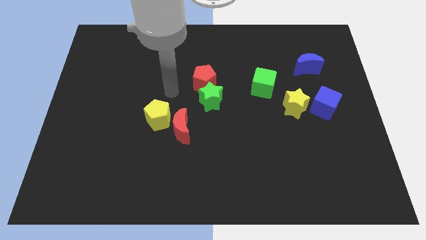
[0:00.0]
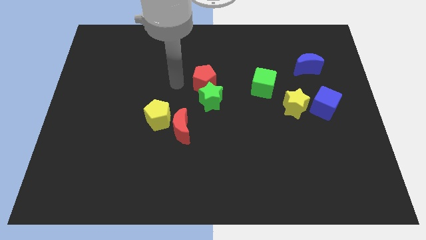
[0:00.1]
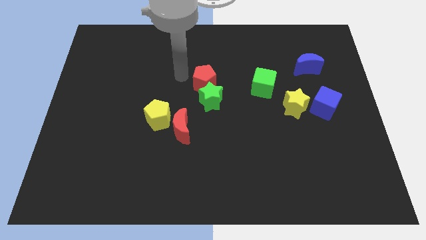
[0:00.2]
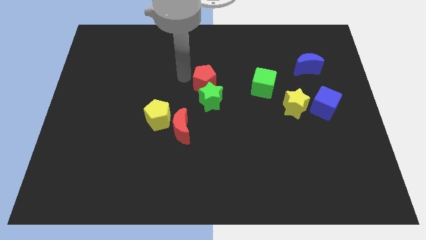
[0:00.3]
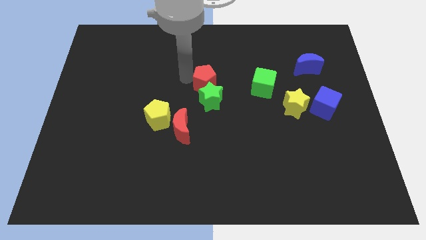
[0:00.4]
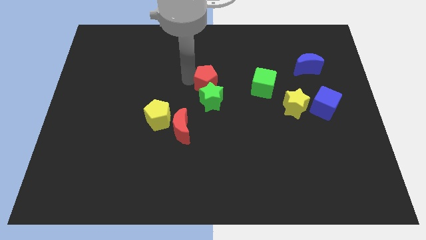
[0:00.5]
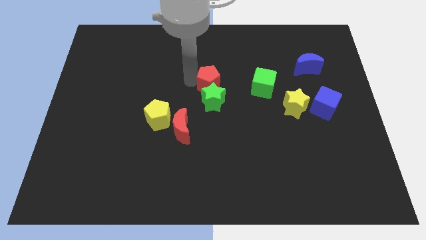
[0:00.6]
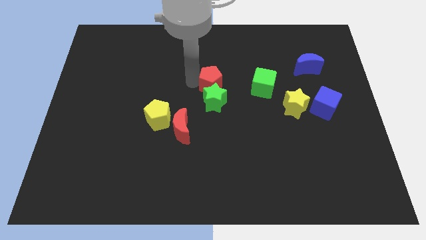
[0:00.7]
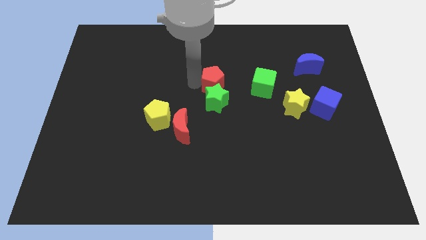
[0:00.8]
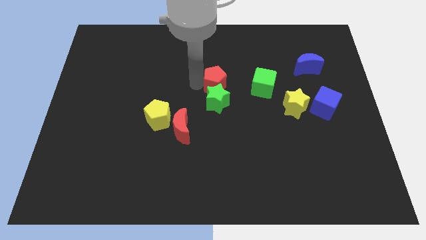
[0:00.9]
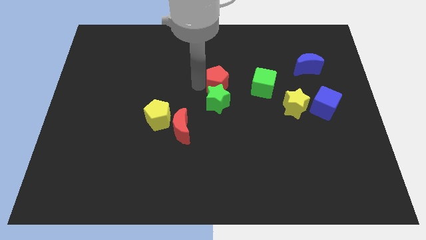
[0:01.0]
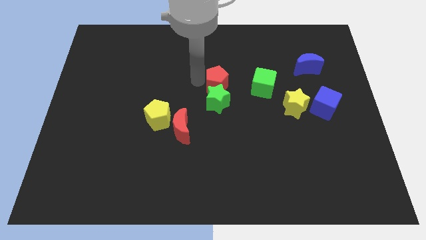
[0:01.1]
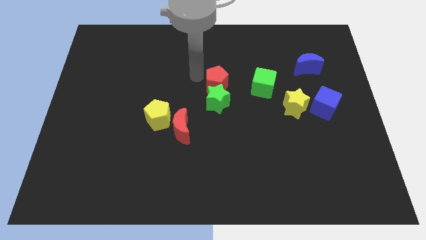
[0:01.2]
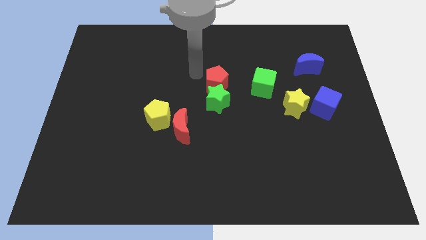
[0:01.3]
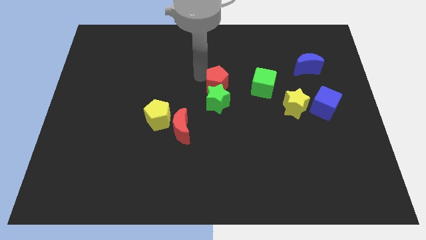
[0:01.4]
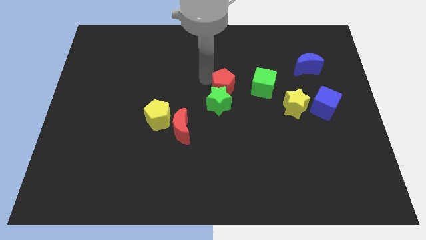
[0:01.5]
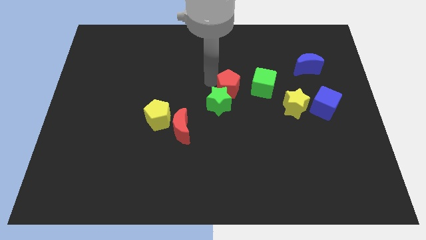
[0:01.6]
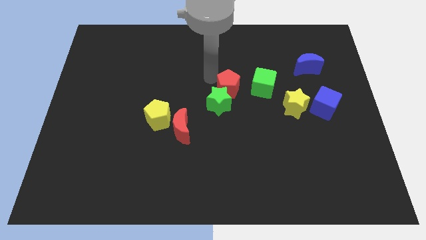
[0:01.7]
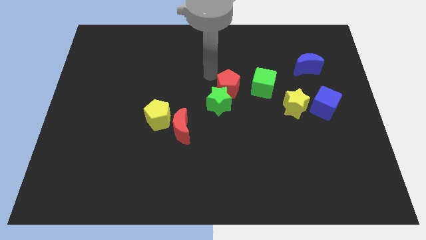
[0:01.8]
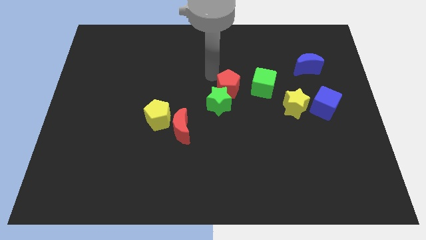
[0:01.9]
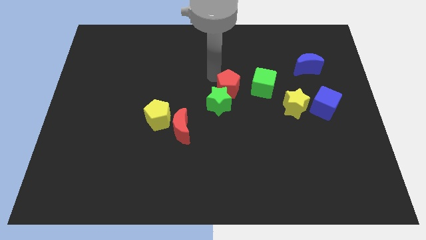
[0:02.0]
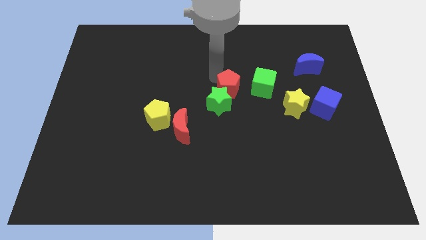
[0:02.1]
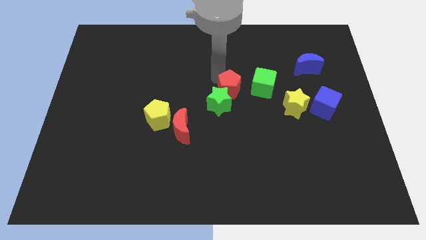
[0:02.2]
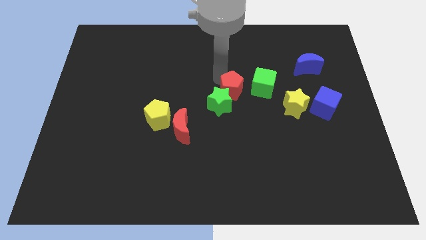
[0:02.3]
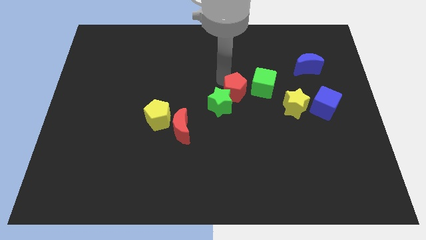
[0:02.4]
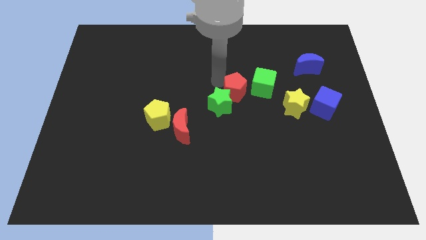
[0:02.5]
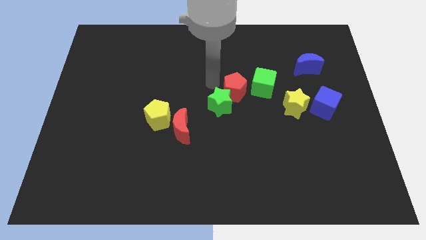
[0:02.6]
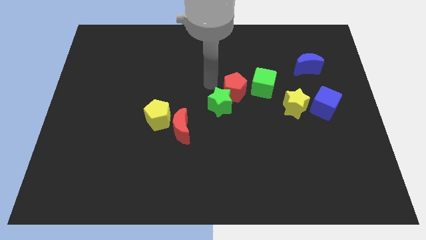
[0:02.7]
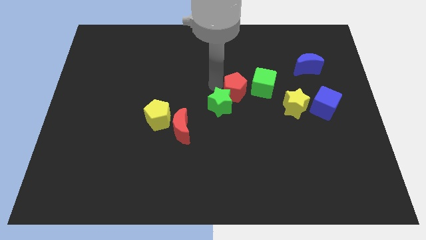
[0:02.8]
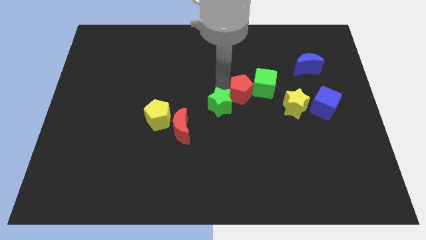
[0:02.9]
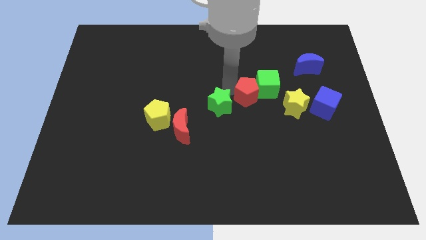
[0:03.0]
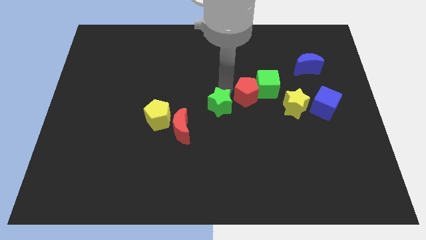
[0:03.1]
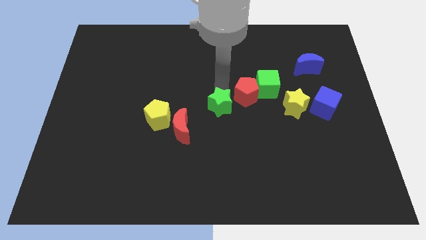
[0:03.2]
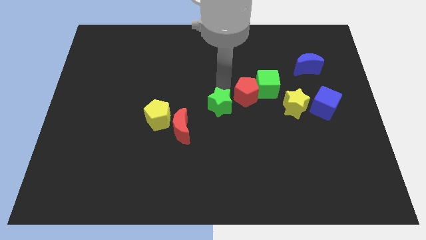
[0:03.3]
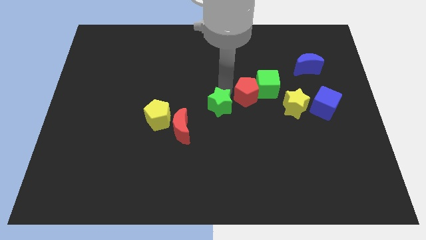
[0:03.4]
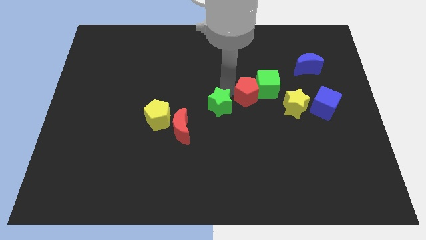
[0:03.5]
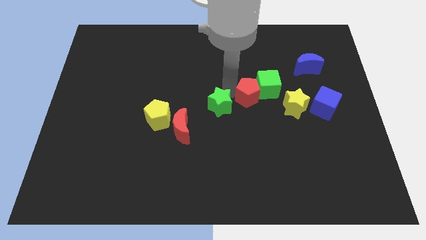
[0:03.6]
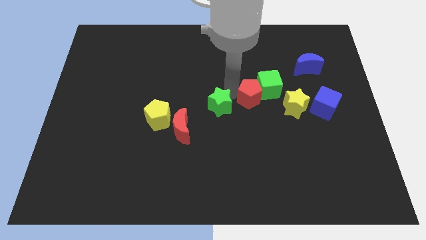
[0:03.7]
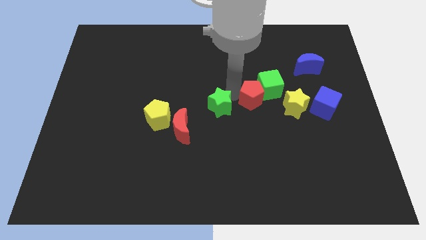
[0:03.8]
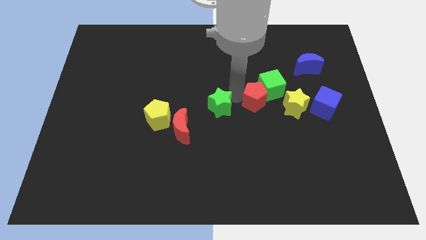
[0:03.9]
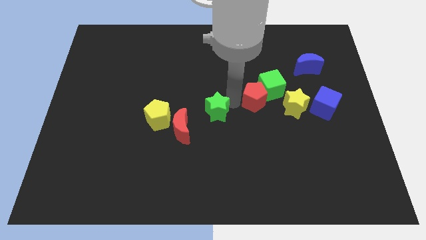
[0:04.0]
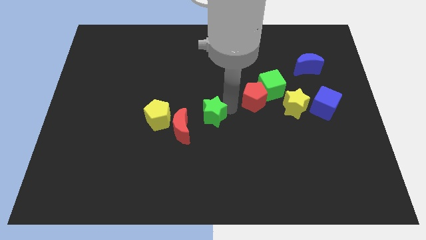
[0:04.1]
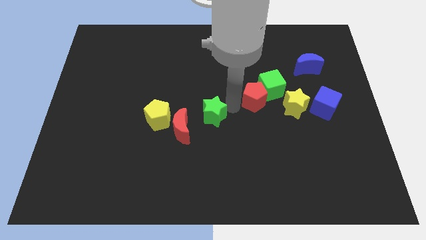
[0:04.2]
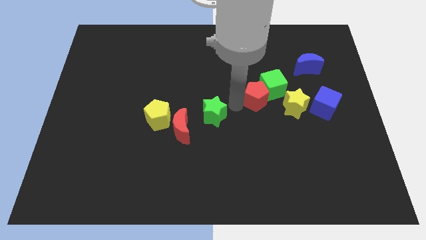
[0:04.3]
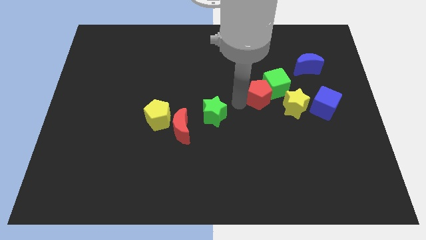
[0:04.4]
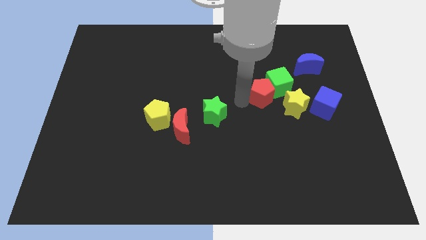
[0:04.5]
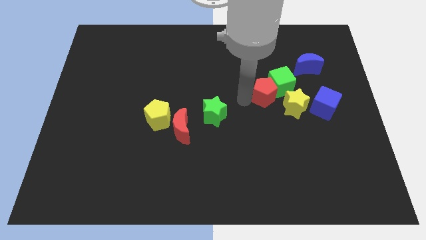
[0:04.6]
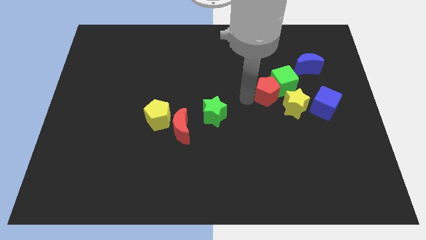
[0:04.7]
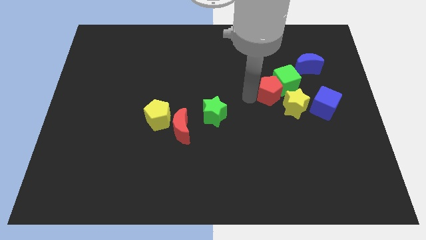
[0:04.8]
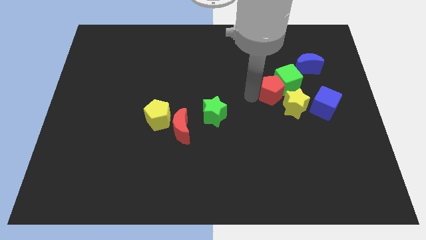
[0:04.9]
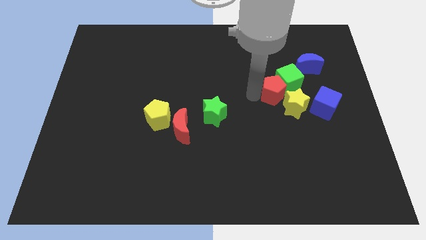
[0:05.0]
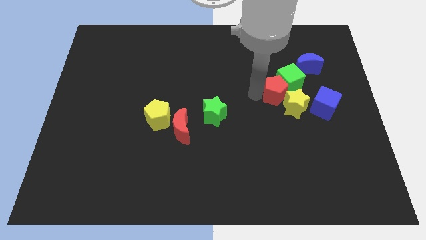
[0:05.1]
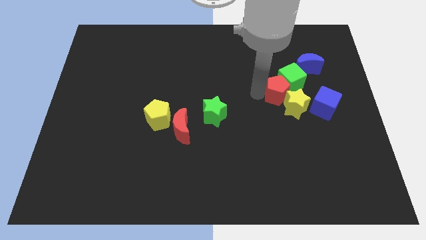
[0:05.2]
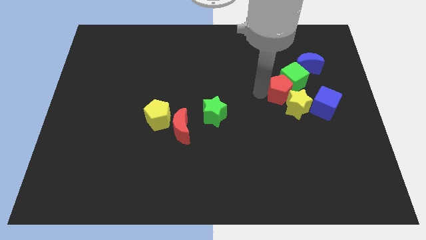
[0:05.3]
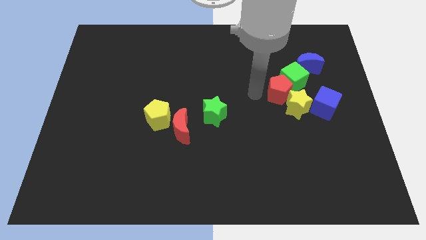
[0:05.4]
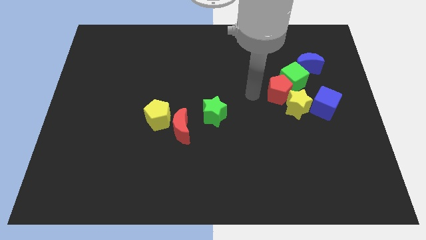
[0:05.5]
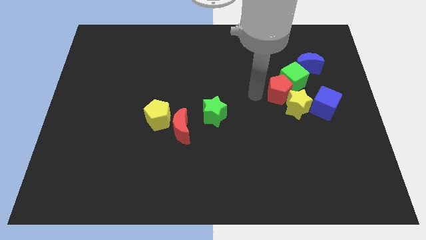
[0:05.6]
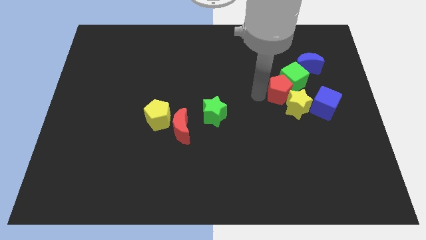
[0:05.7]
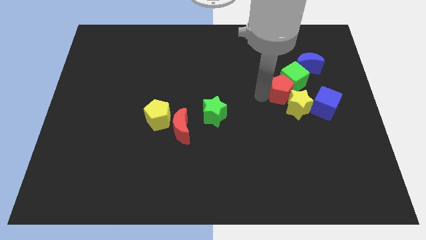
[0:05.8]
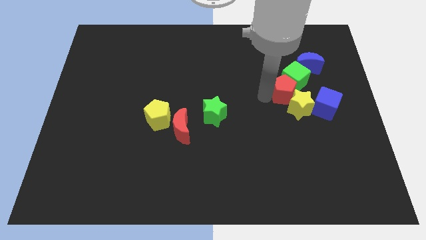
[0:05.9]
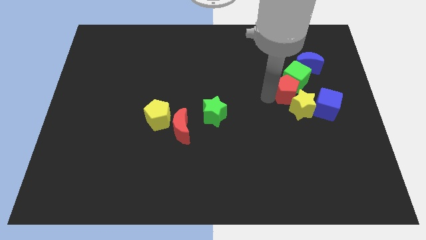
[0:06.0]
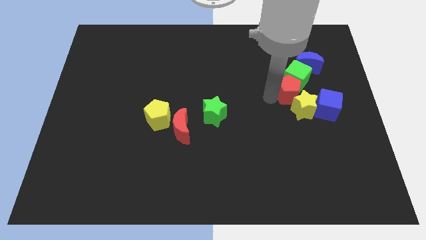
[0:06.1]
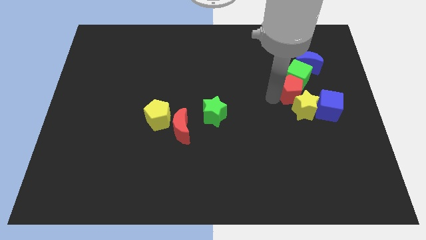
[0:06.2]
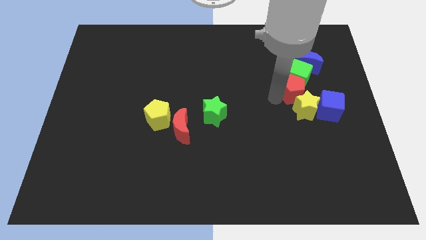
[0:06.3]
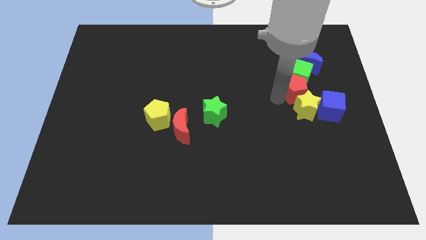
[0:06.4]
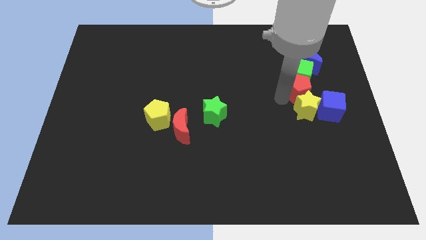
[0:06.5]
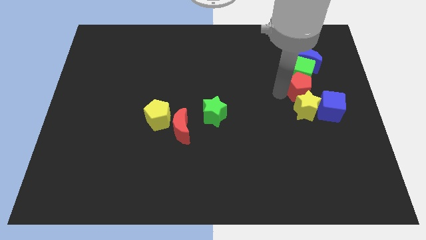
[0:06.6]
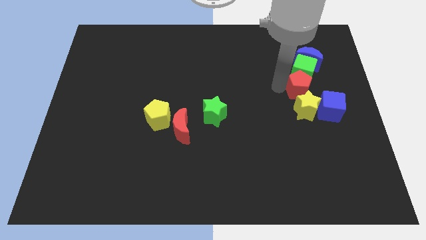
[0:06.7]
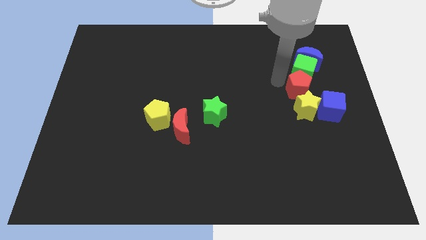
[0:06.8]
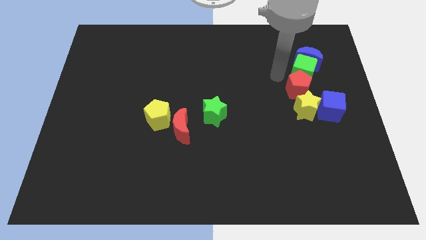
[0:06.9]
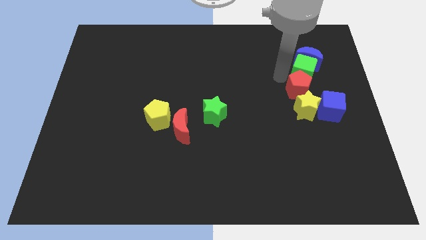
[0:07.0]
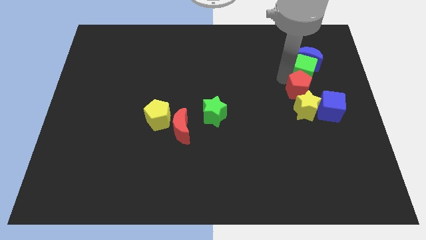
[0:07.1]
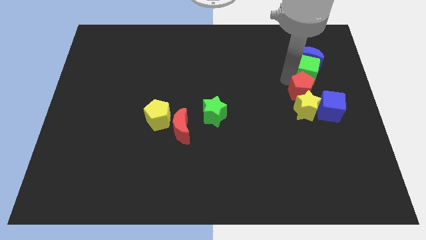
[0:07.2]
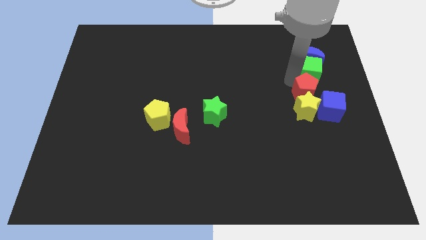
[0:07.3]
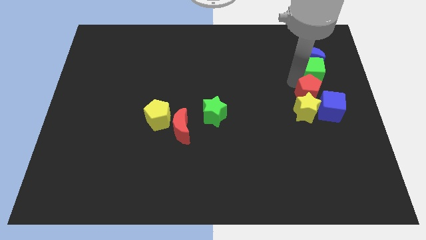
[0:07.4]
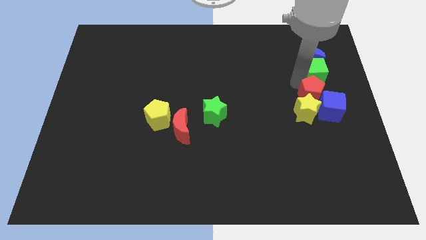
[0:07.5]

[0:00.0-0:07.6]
push the red pentagon to the blue cube
